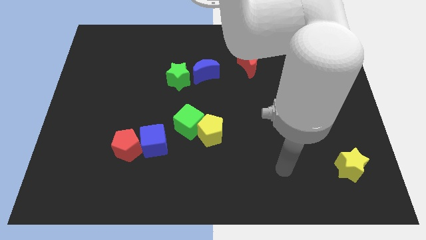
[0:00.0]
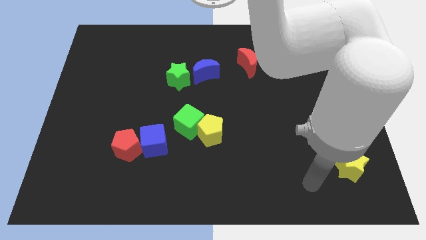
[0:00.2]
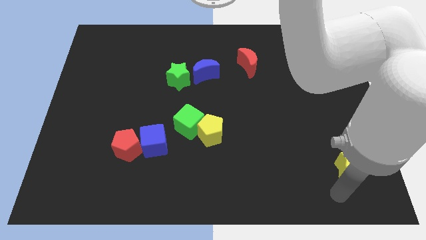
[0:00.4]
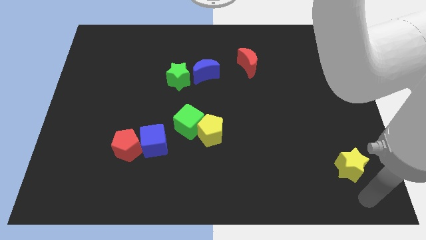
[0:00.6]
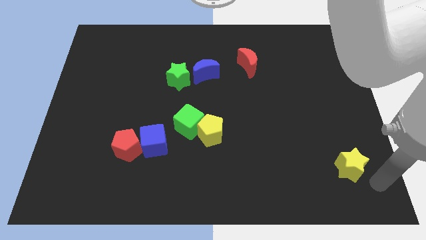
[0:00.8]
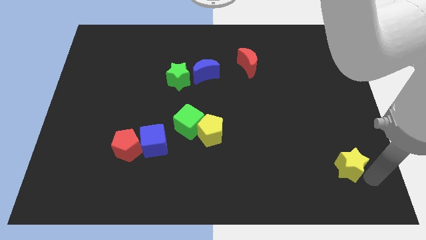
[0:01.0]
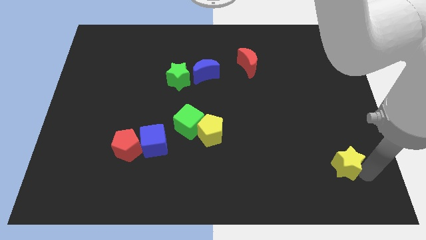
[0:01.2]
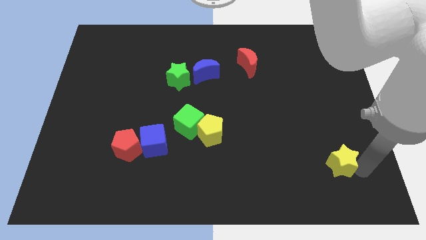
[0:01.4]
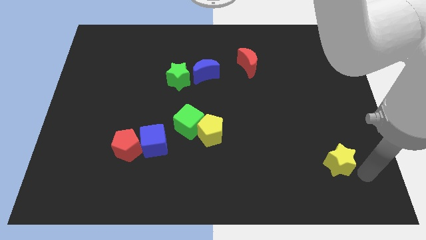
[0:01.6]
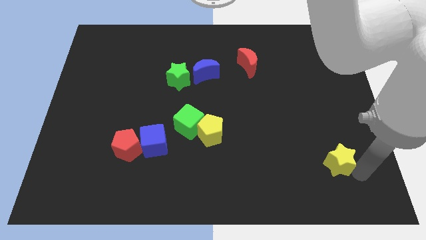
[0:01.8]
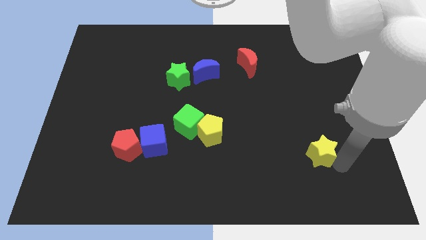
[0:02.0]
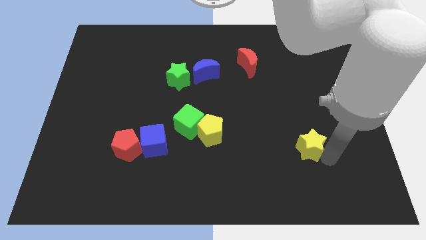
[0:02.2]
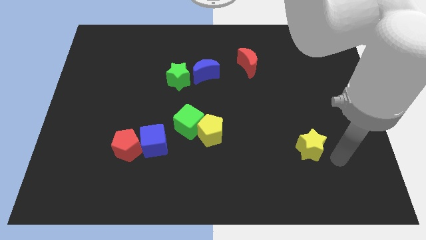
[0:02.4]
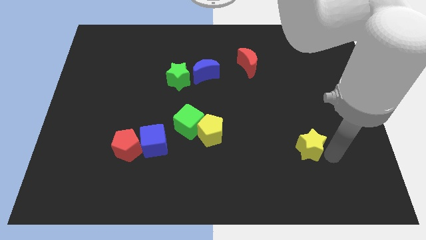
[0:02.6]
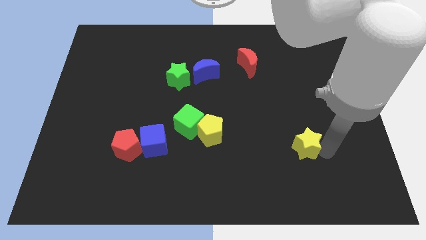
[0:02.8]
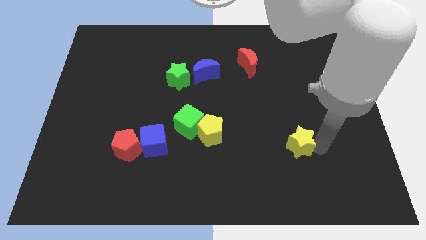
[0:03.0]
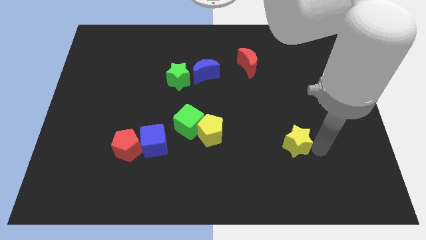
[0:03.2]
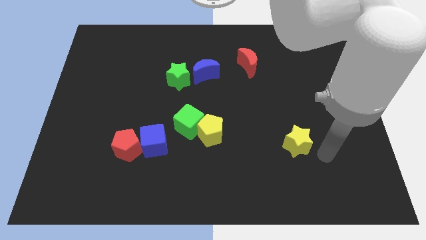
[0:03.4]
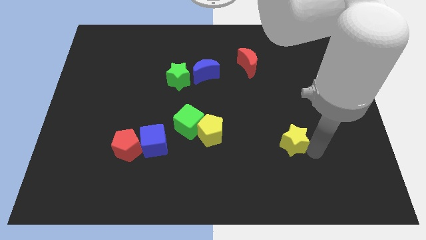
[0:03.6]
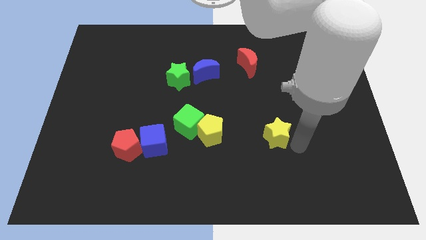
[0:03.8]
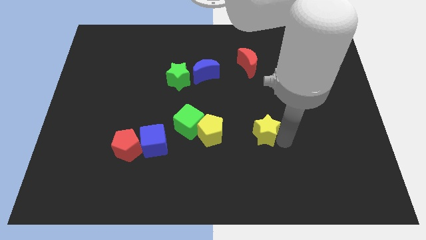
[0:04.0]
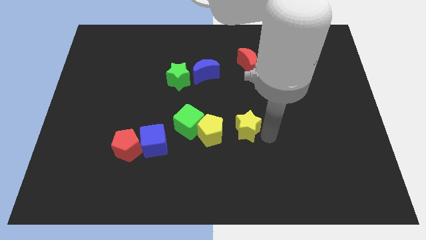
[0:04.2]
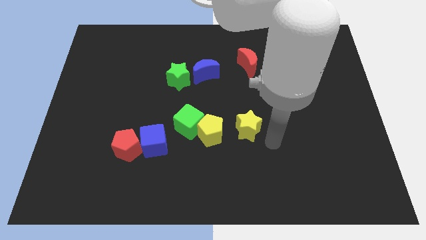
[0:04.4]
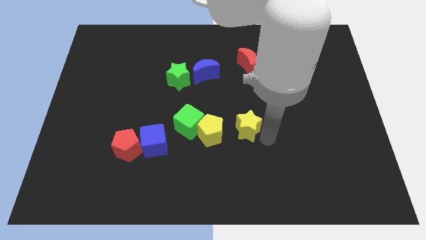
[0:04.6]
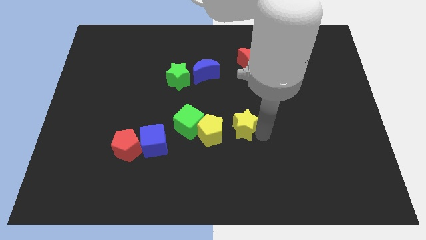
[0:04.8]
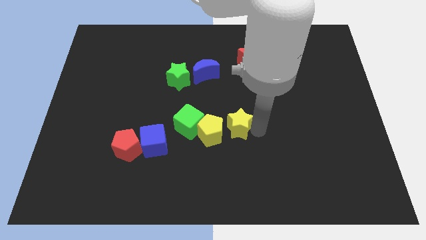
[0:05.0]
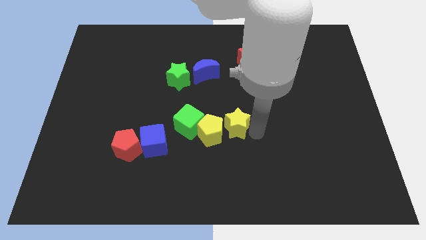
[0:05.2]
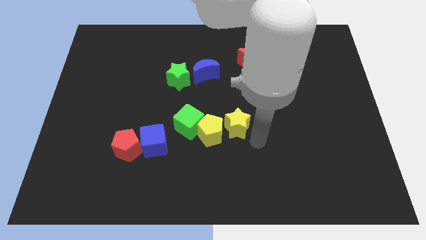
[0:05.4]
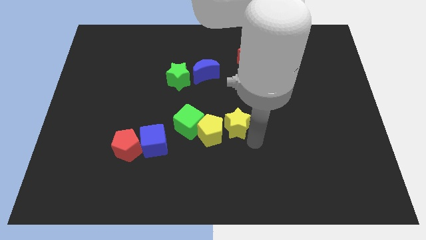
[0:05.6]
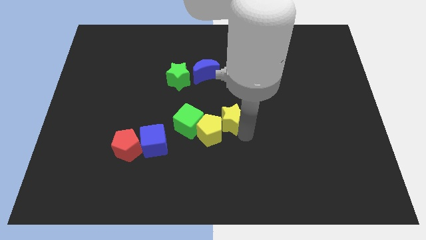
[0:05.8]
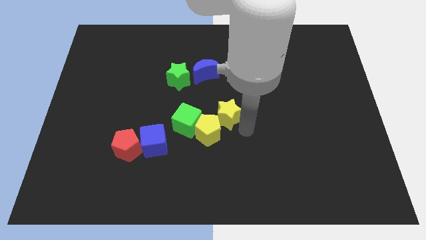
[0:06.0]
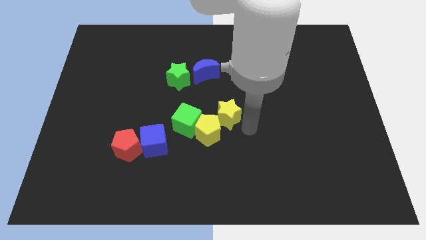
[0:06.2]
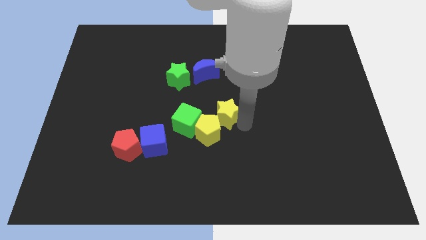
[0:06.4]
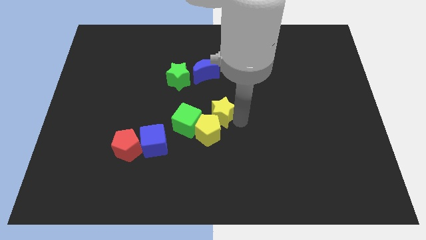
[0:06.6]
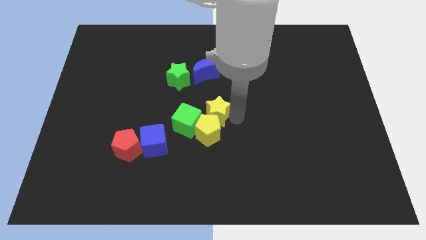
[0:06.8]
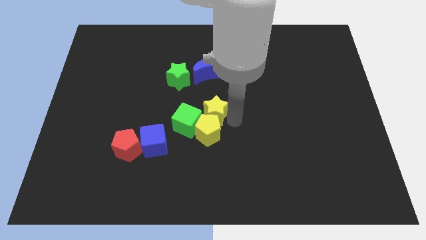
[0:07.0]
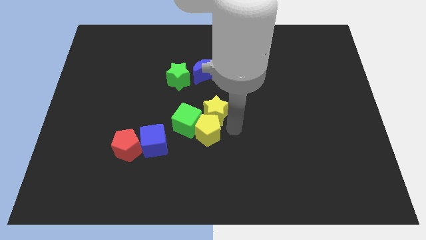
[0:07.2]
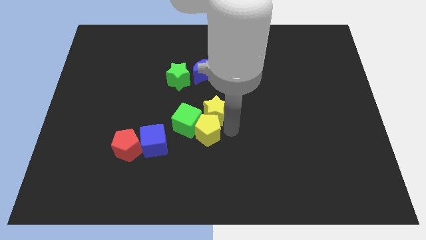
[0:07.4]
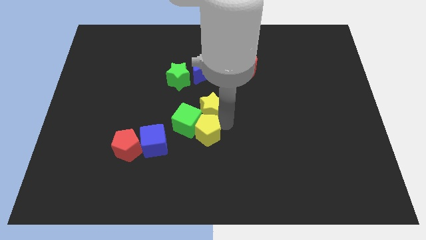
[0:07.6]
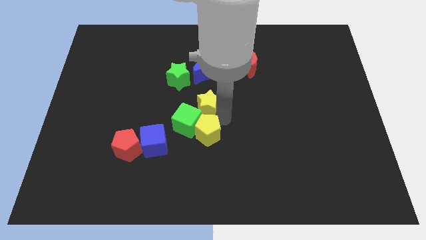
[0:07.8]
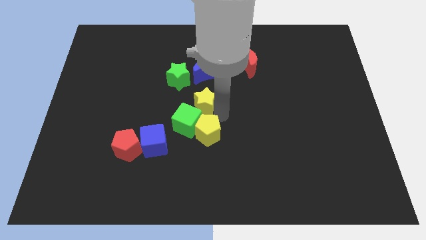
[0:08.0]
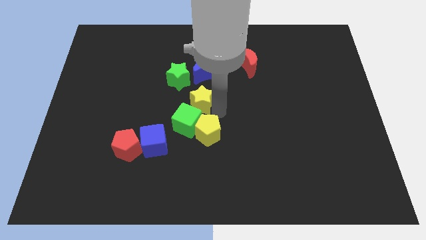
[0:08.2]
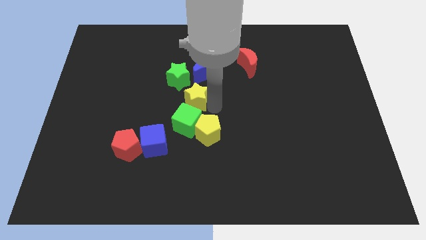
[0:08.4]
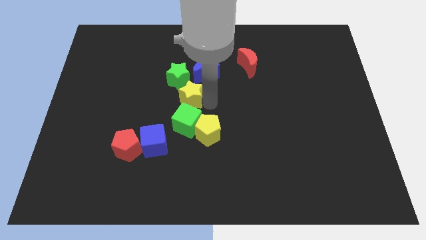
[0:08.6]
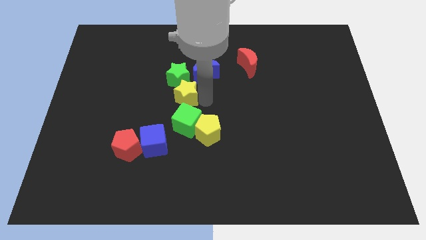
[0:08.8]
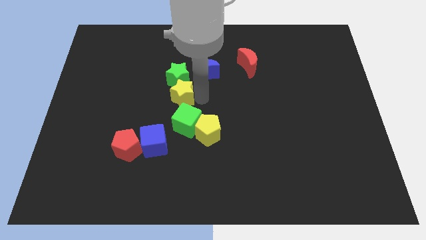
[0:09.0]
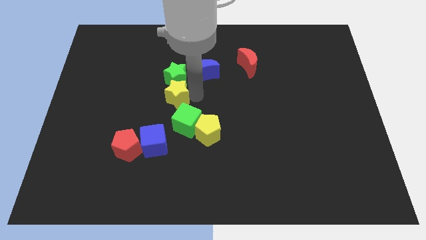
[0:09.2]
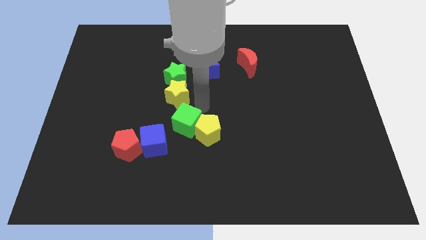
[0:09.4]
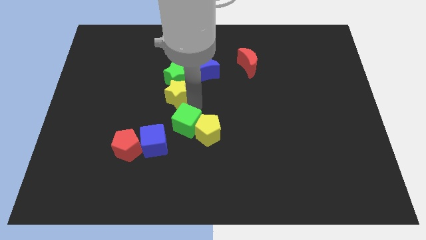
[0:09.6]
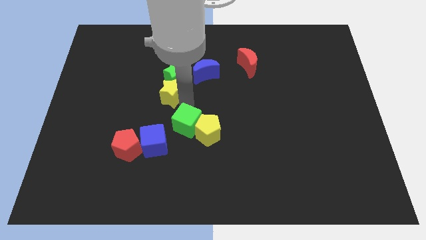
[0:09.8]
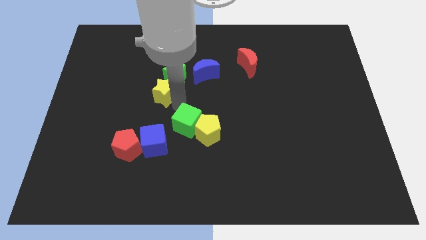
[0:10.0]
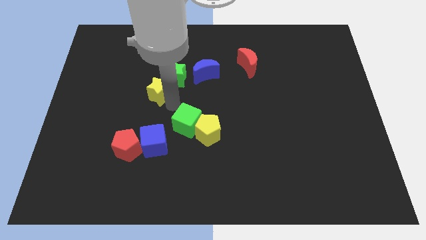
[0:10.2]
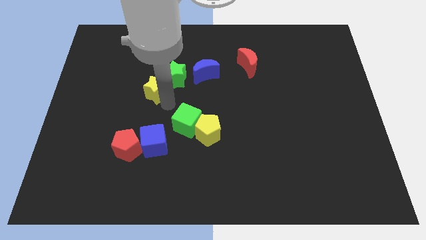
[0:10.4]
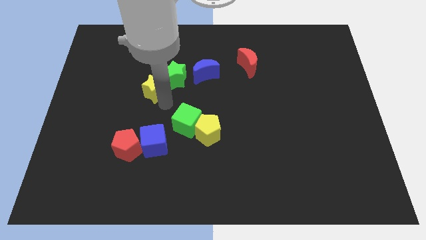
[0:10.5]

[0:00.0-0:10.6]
put the yellow star to the left of the green star

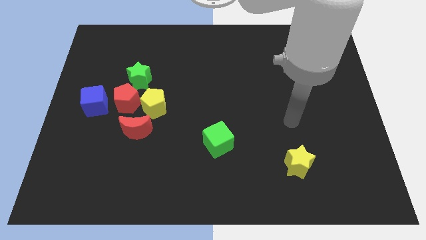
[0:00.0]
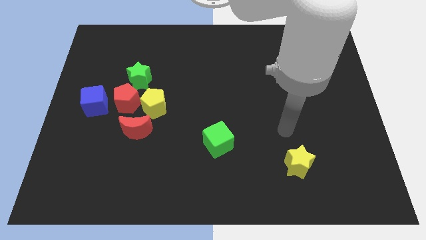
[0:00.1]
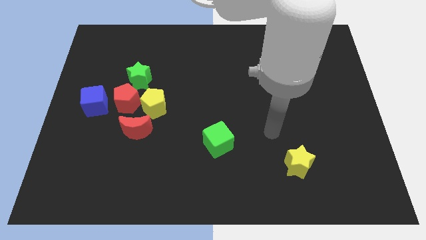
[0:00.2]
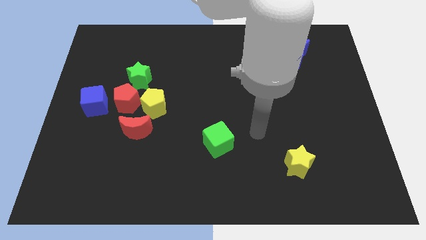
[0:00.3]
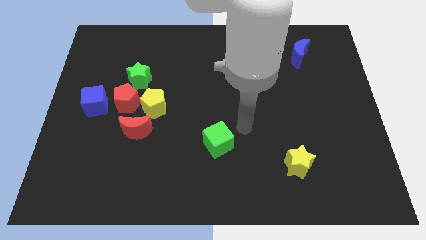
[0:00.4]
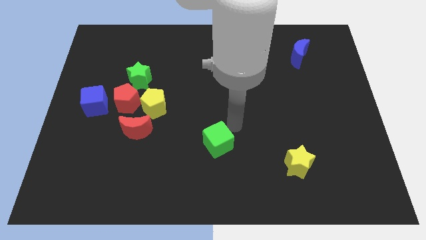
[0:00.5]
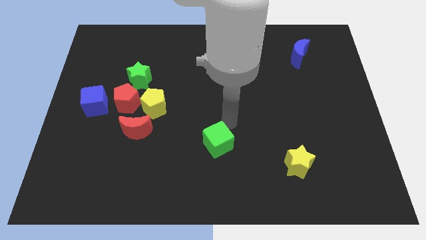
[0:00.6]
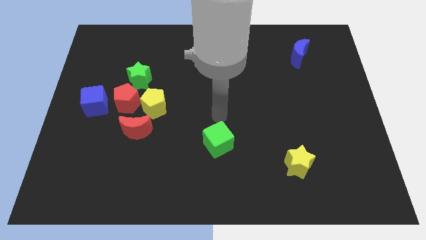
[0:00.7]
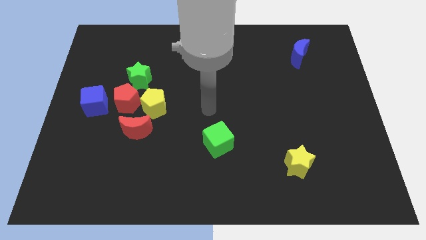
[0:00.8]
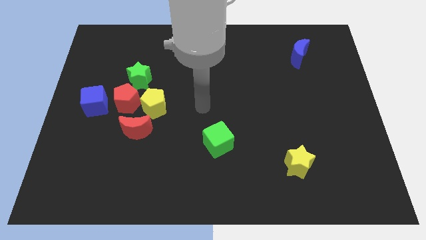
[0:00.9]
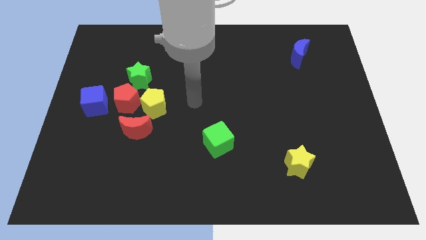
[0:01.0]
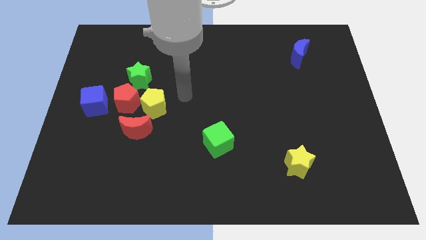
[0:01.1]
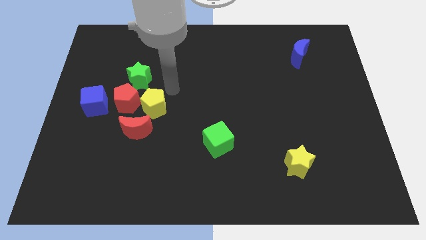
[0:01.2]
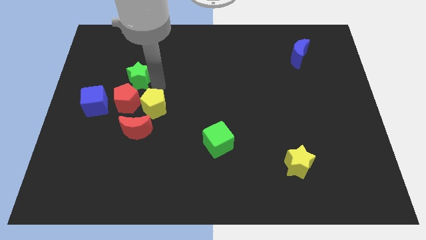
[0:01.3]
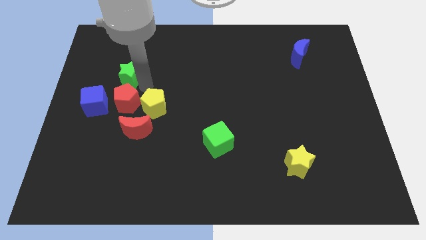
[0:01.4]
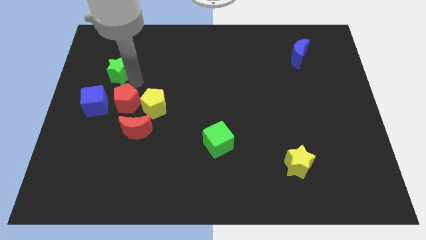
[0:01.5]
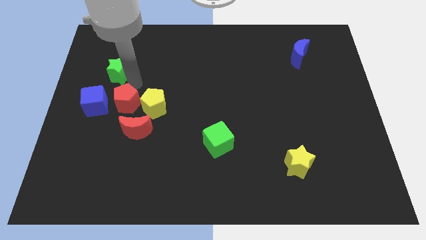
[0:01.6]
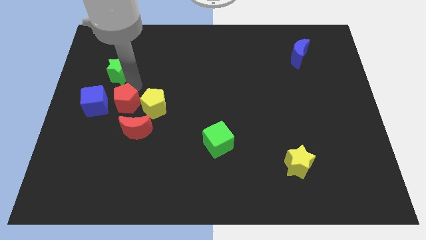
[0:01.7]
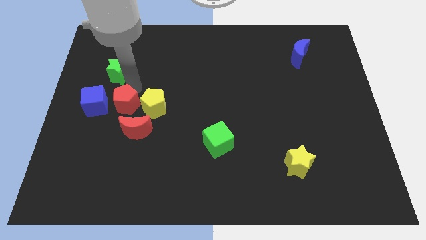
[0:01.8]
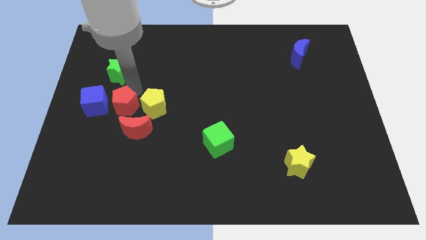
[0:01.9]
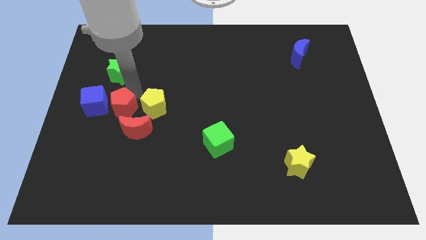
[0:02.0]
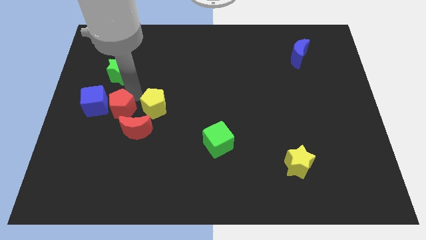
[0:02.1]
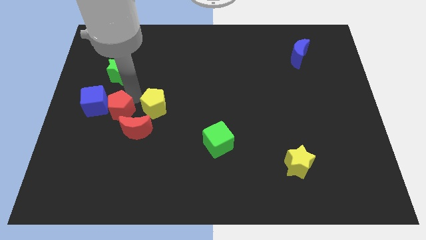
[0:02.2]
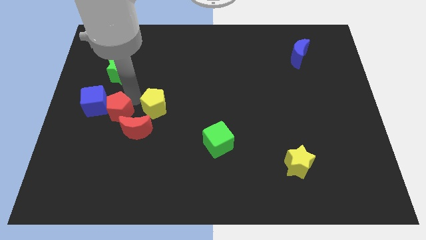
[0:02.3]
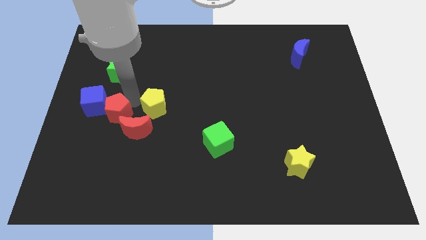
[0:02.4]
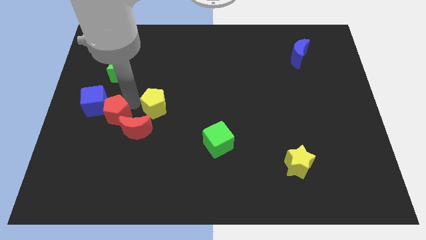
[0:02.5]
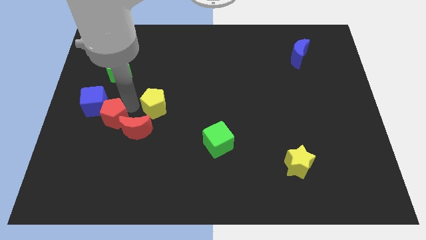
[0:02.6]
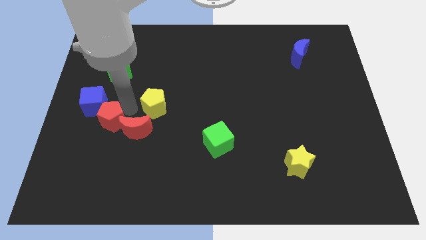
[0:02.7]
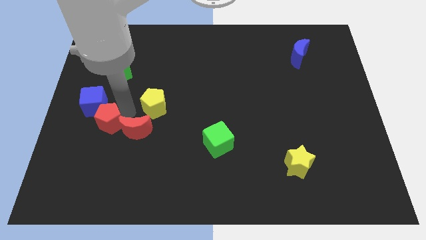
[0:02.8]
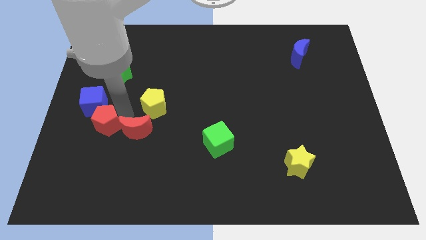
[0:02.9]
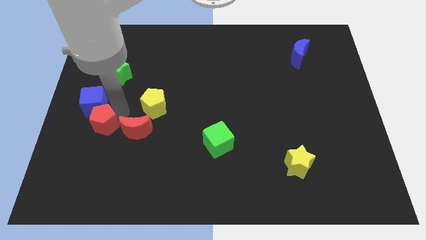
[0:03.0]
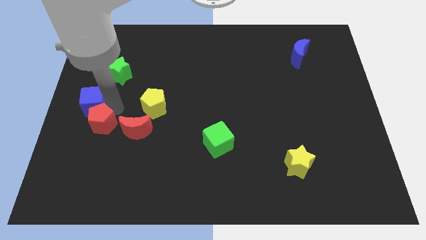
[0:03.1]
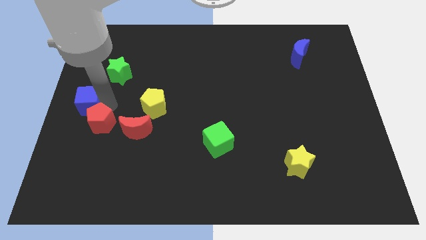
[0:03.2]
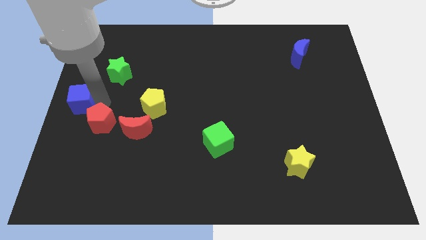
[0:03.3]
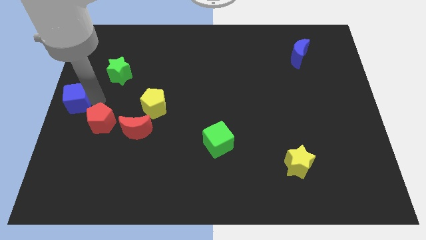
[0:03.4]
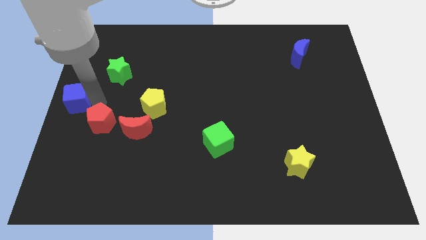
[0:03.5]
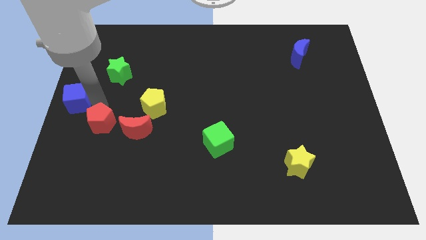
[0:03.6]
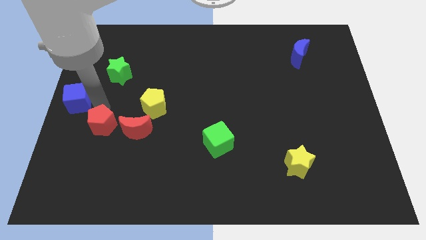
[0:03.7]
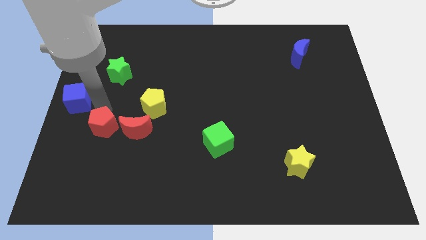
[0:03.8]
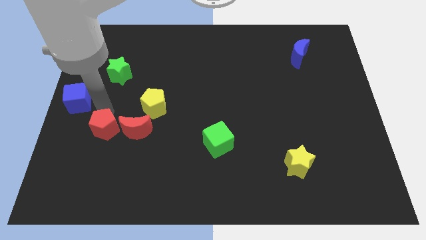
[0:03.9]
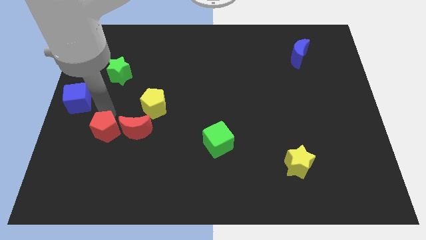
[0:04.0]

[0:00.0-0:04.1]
move the red pentagon diagonally down and to the left of the red moon
